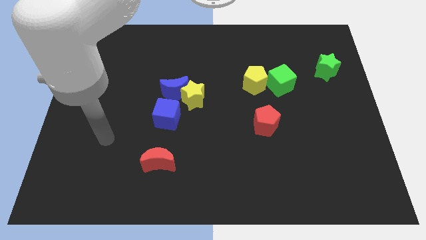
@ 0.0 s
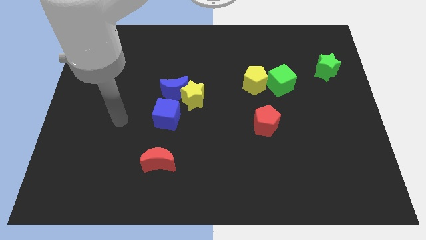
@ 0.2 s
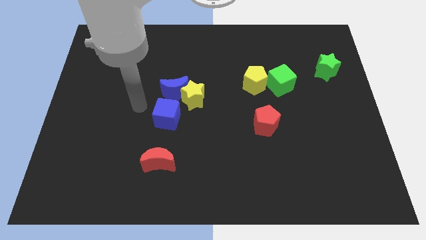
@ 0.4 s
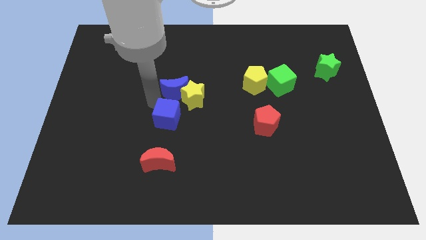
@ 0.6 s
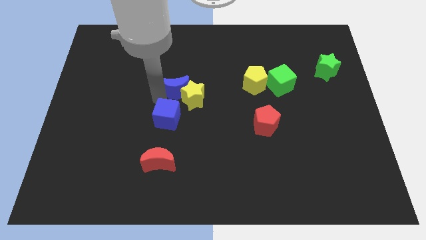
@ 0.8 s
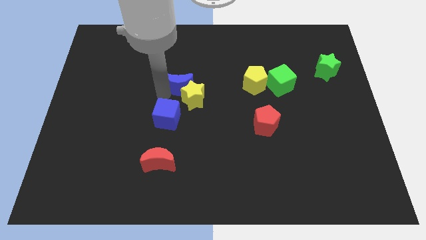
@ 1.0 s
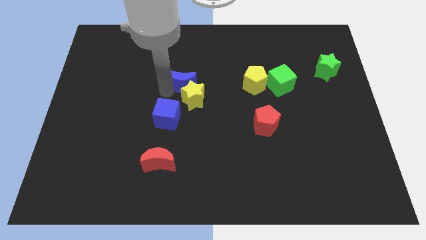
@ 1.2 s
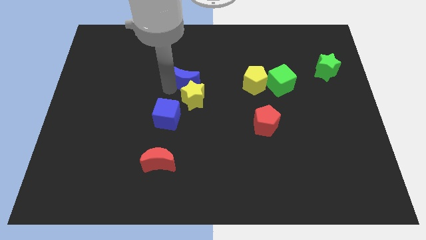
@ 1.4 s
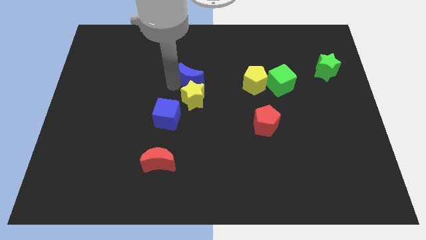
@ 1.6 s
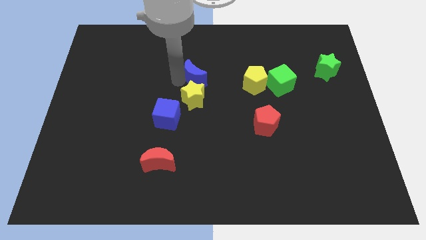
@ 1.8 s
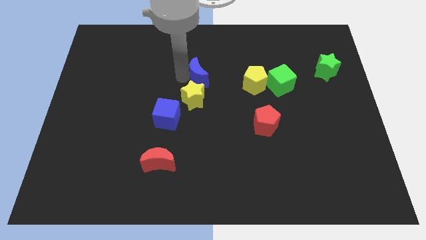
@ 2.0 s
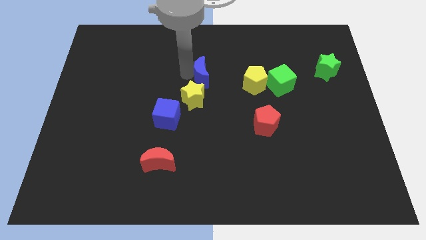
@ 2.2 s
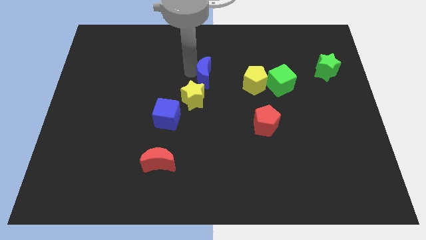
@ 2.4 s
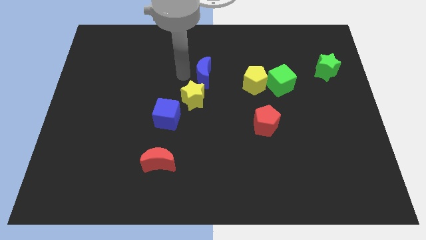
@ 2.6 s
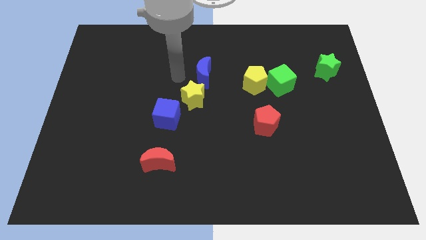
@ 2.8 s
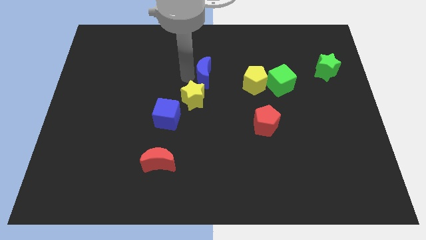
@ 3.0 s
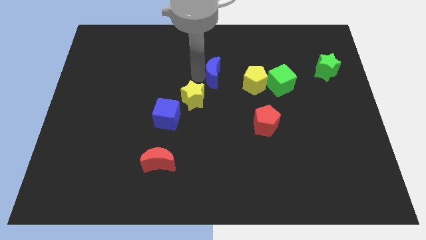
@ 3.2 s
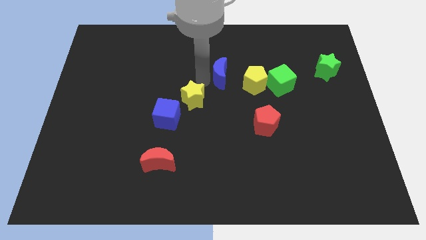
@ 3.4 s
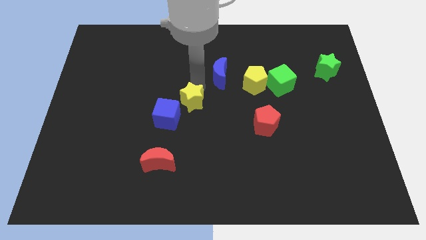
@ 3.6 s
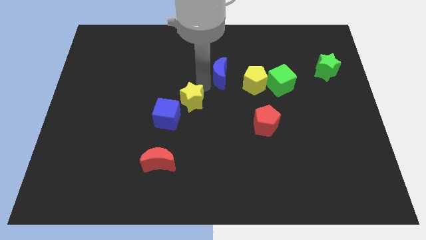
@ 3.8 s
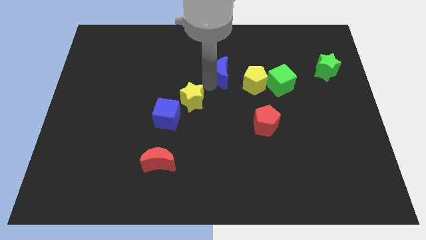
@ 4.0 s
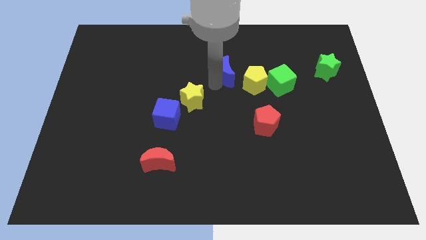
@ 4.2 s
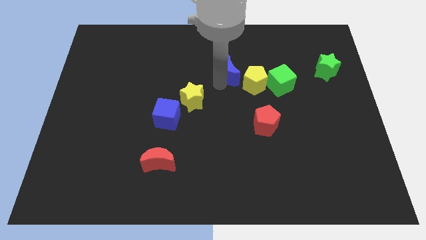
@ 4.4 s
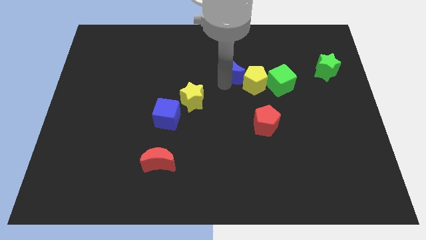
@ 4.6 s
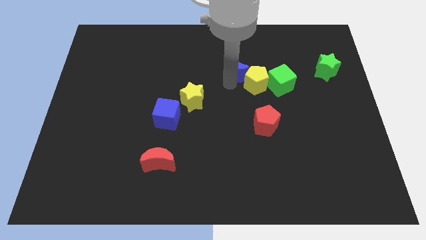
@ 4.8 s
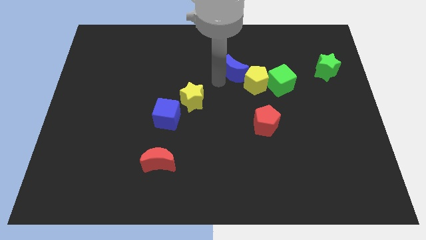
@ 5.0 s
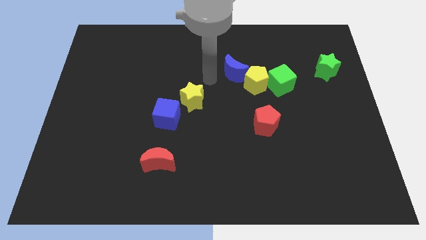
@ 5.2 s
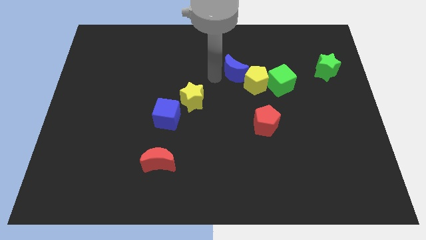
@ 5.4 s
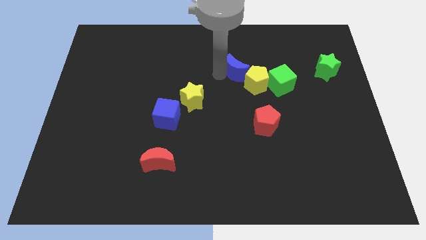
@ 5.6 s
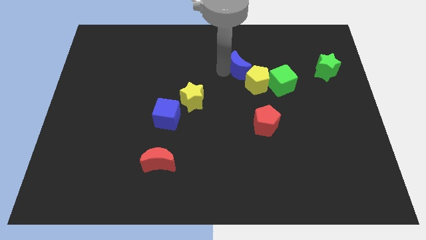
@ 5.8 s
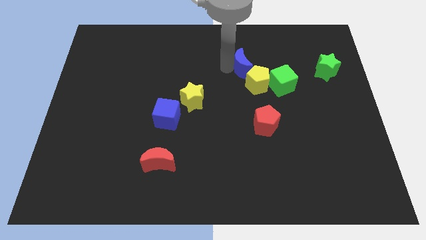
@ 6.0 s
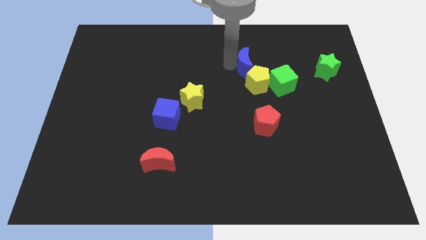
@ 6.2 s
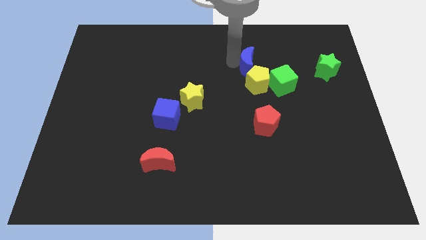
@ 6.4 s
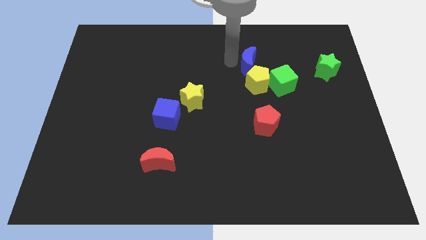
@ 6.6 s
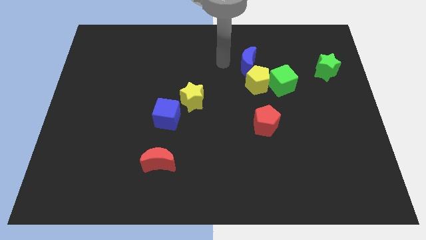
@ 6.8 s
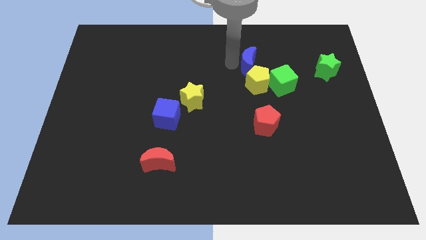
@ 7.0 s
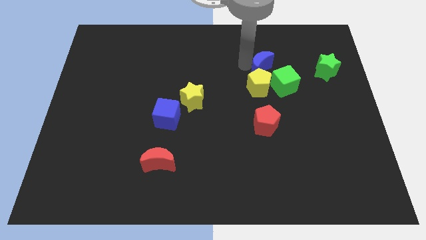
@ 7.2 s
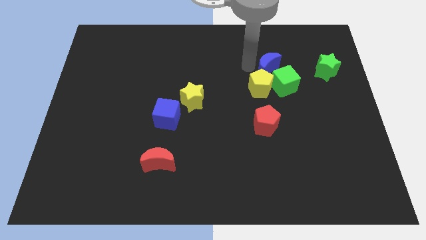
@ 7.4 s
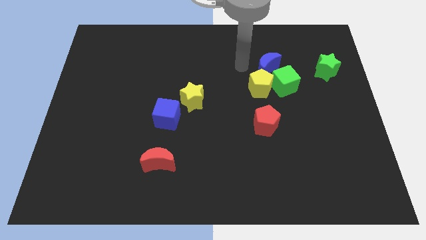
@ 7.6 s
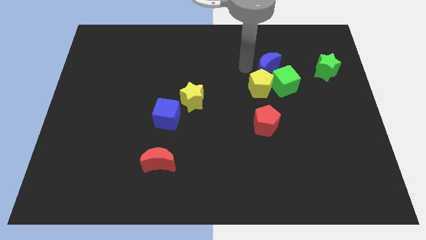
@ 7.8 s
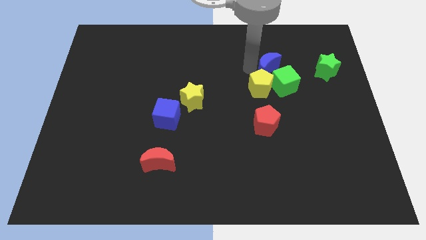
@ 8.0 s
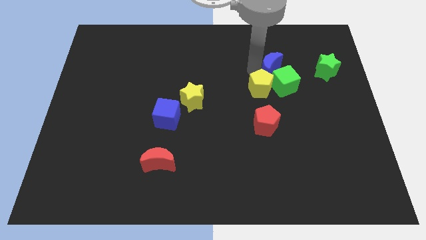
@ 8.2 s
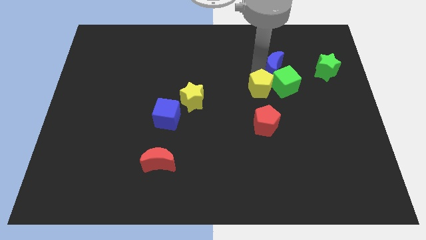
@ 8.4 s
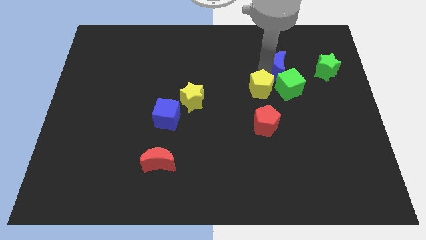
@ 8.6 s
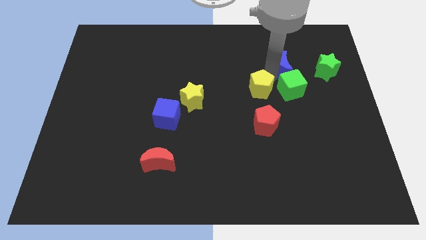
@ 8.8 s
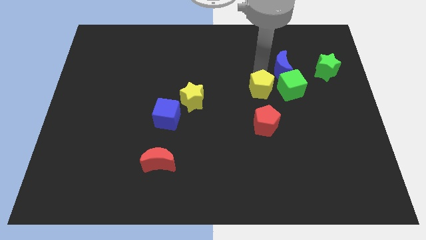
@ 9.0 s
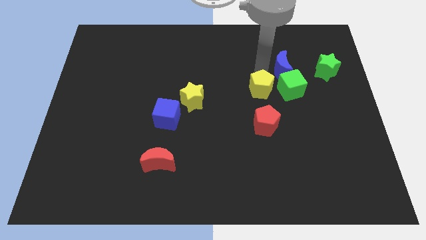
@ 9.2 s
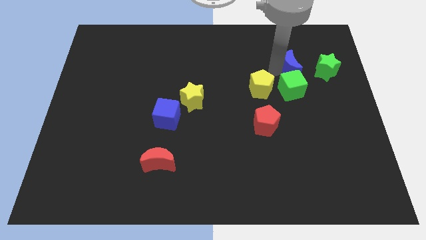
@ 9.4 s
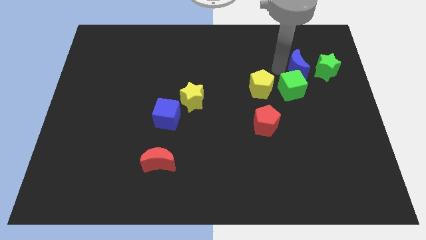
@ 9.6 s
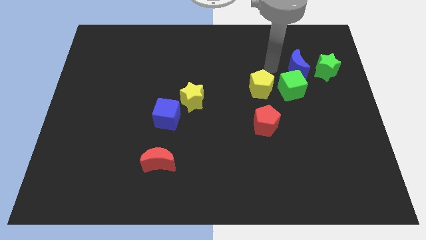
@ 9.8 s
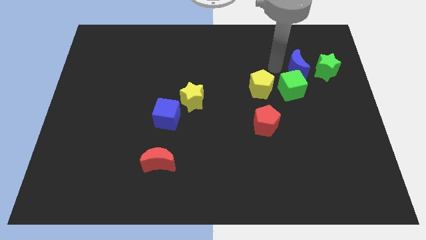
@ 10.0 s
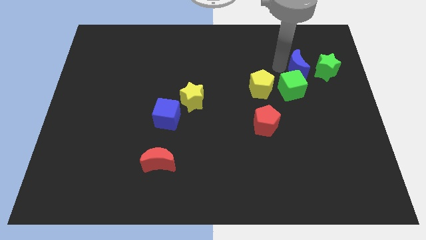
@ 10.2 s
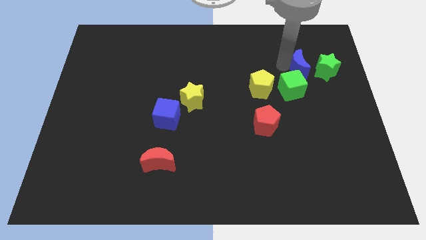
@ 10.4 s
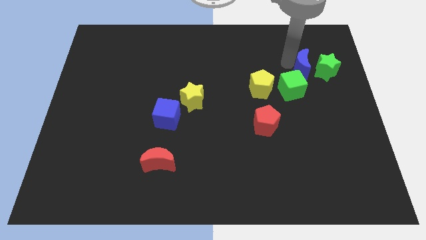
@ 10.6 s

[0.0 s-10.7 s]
push the blue moon close to the green star

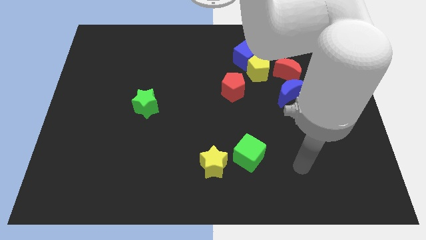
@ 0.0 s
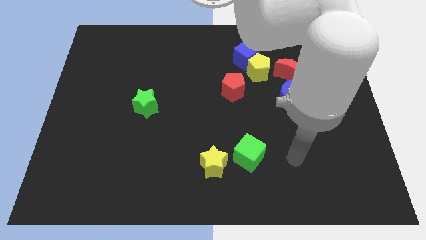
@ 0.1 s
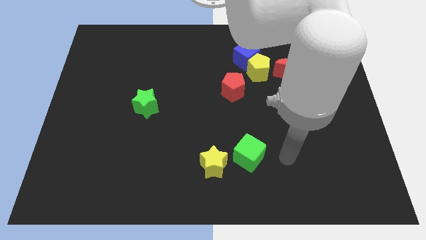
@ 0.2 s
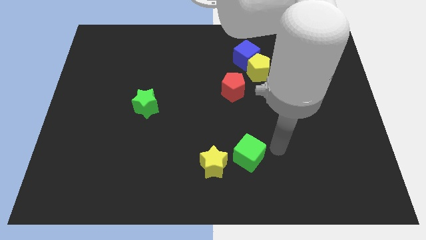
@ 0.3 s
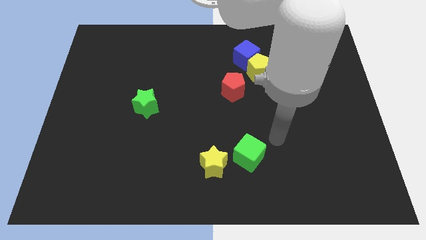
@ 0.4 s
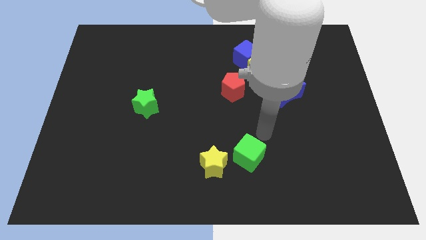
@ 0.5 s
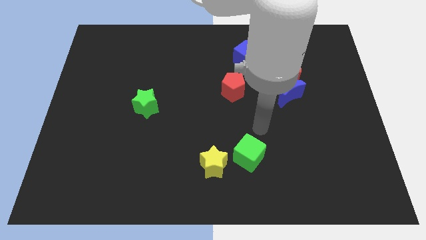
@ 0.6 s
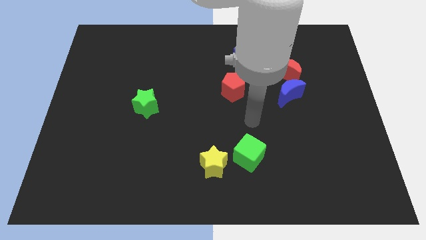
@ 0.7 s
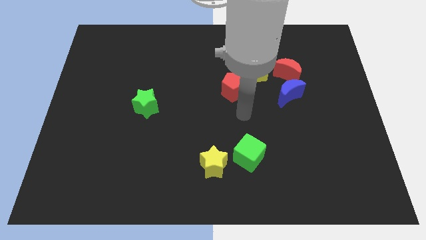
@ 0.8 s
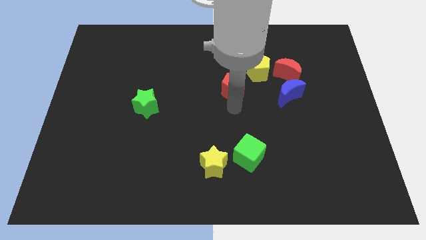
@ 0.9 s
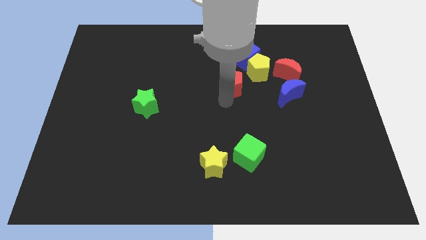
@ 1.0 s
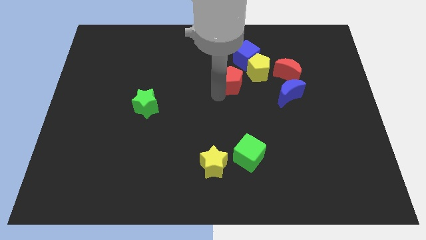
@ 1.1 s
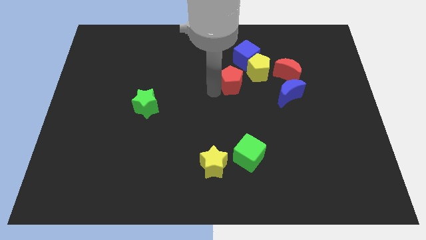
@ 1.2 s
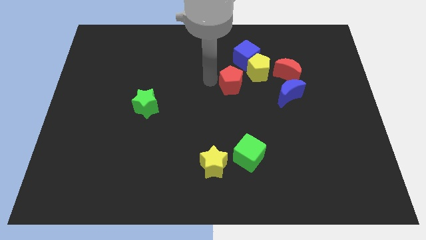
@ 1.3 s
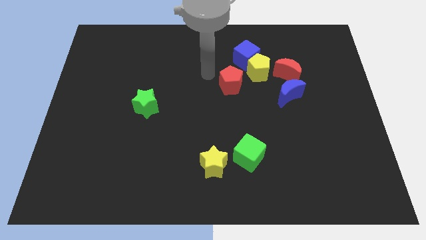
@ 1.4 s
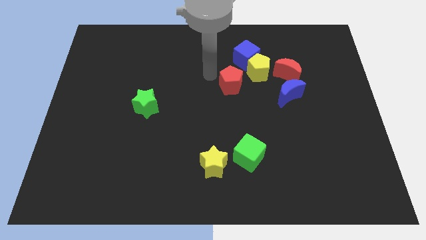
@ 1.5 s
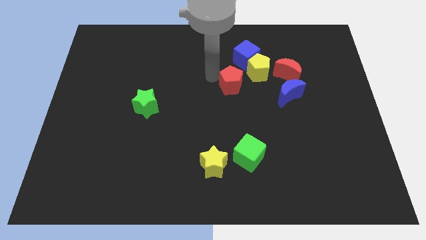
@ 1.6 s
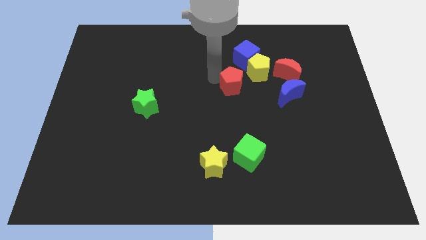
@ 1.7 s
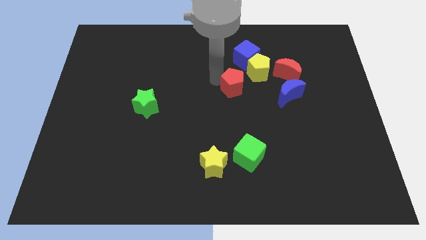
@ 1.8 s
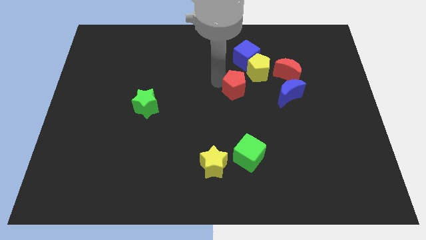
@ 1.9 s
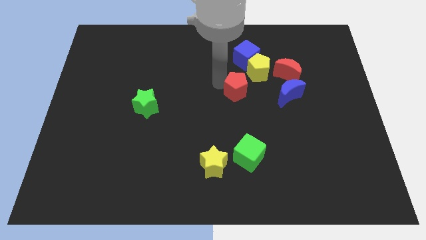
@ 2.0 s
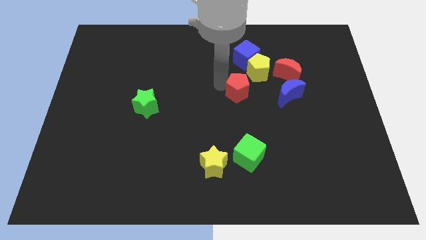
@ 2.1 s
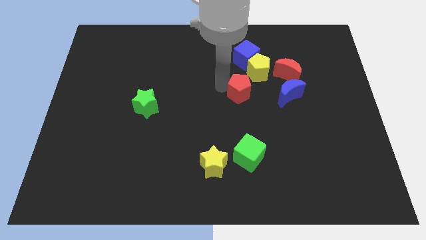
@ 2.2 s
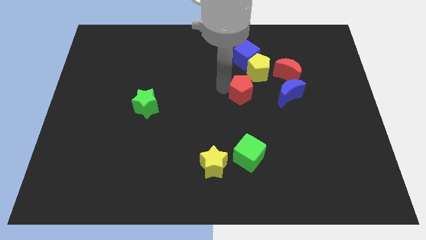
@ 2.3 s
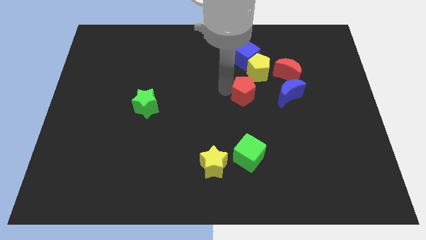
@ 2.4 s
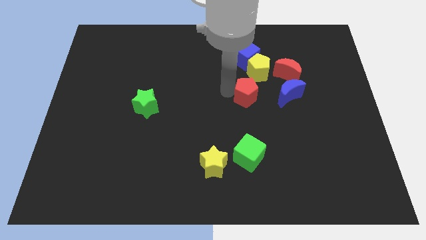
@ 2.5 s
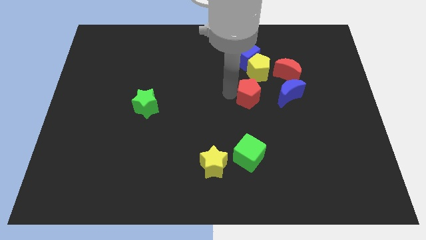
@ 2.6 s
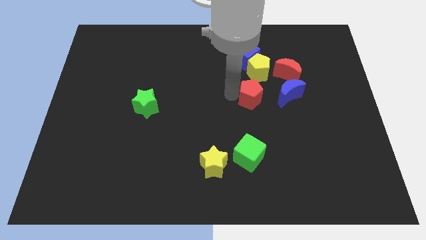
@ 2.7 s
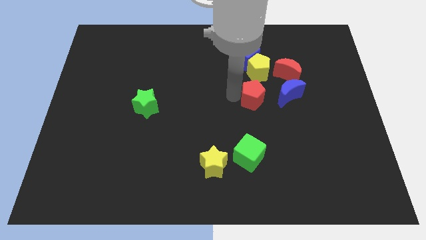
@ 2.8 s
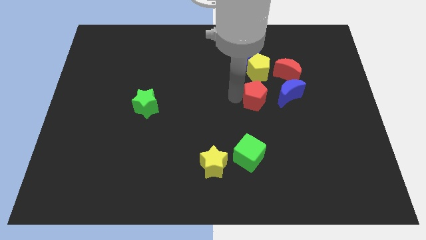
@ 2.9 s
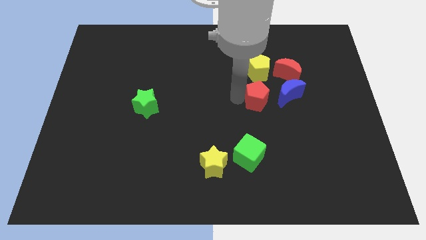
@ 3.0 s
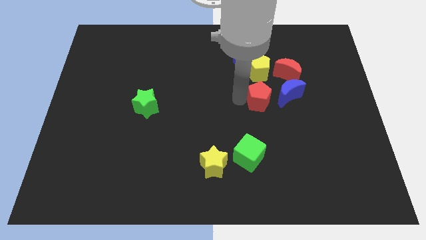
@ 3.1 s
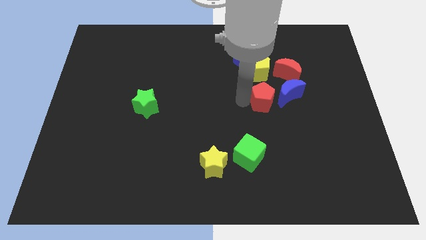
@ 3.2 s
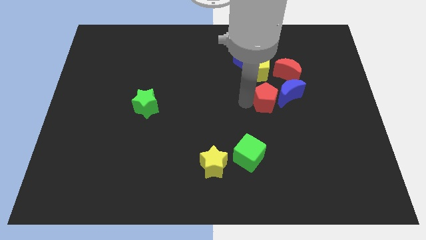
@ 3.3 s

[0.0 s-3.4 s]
push the red pentagon to the blue moon
